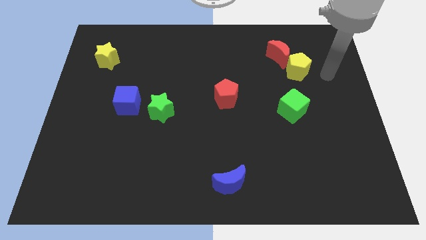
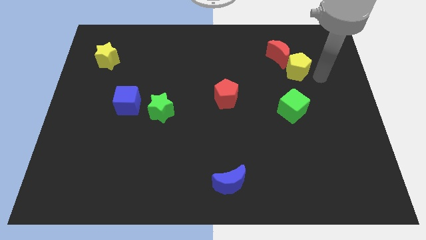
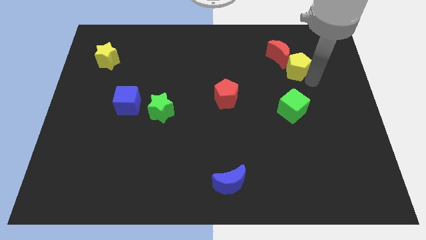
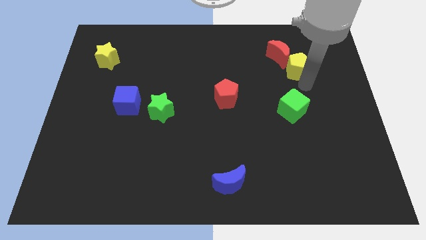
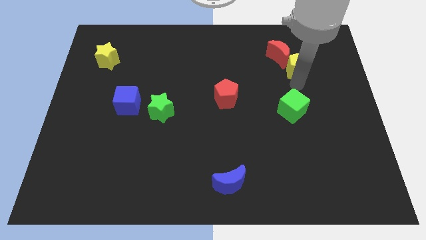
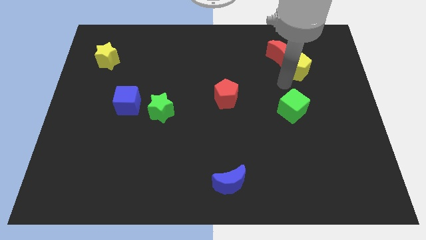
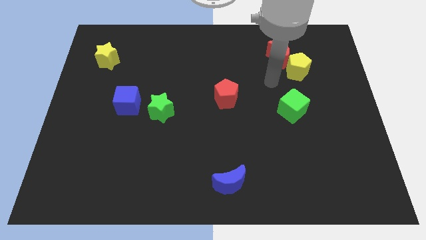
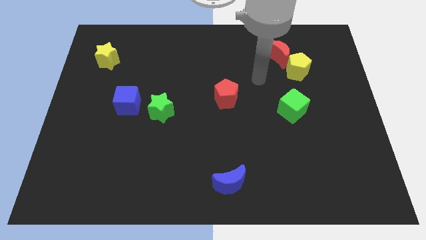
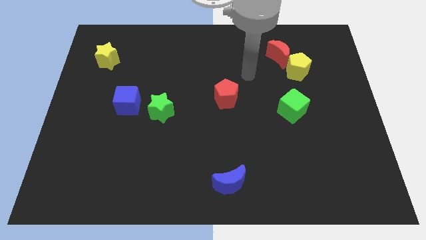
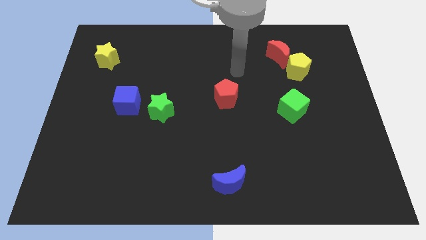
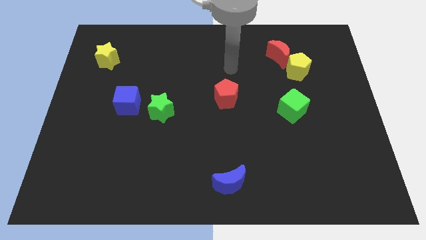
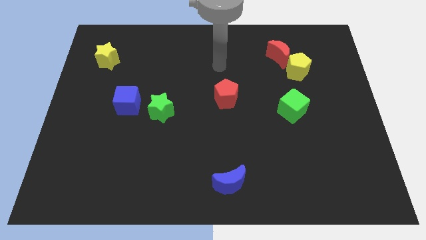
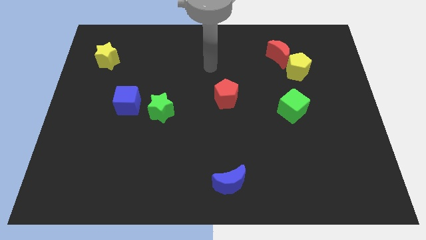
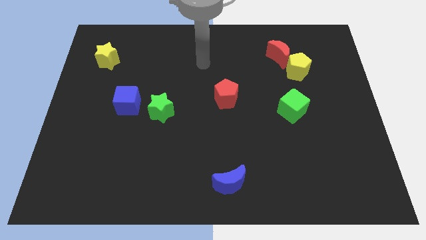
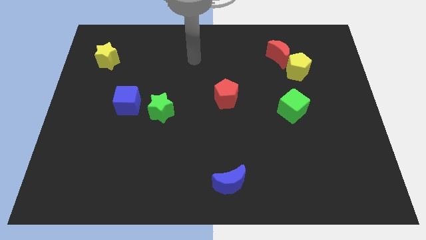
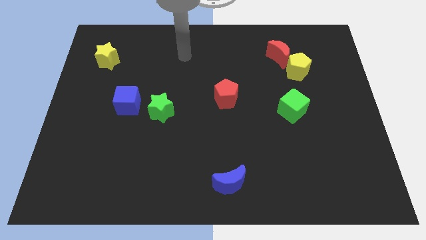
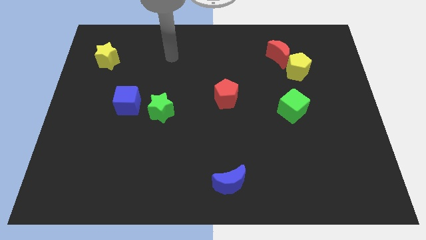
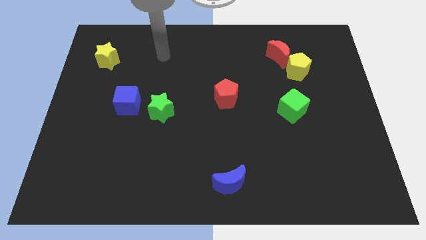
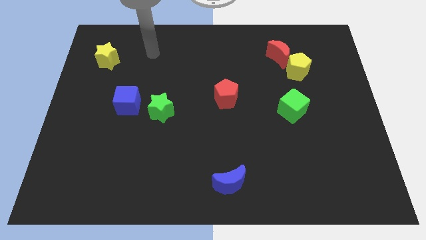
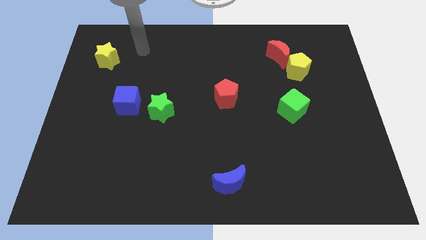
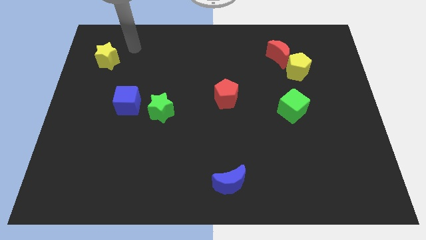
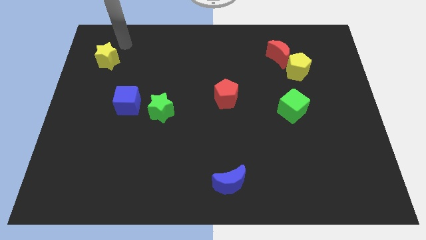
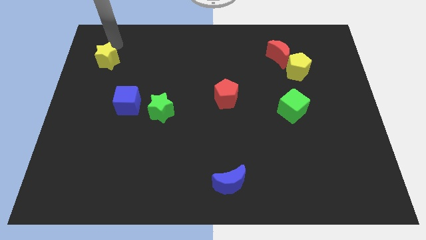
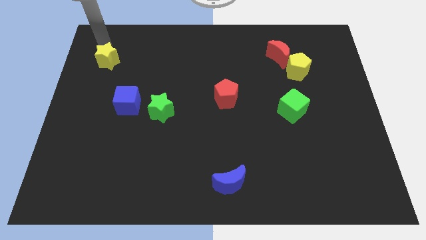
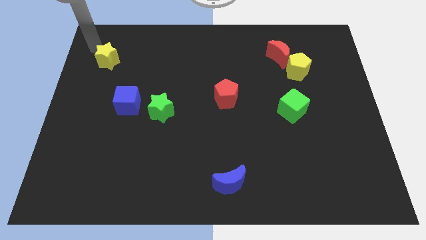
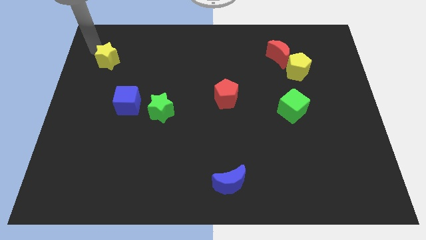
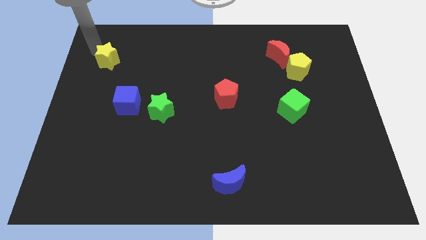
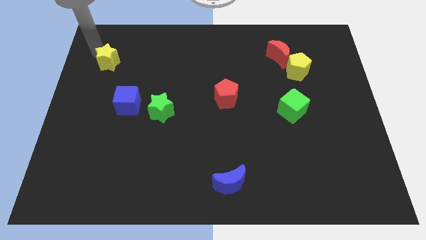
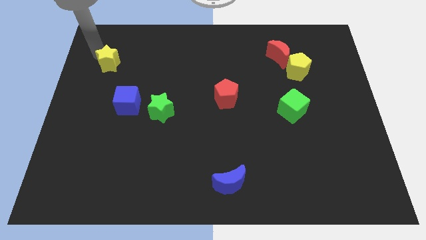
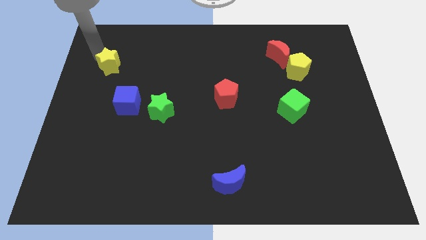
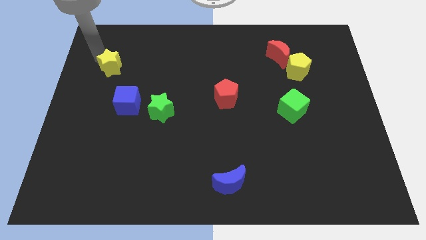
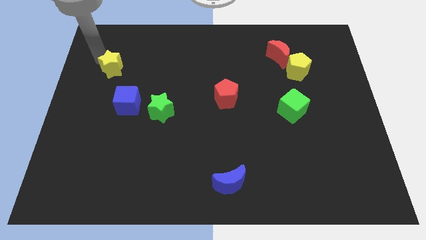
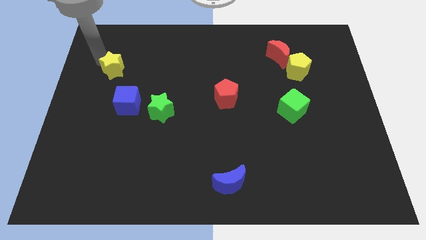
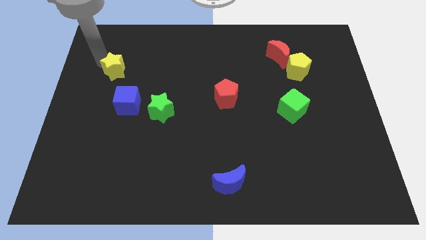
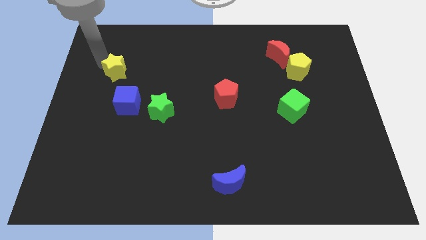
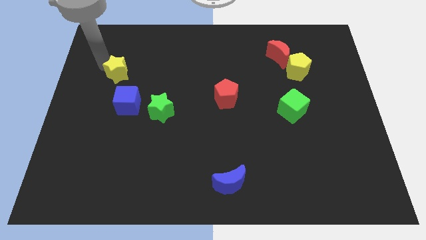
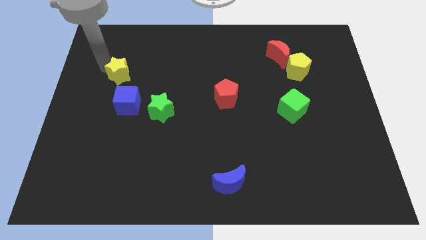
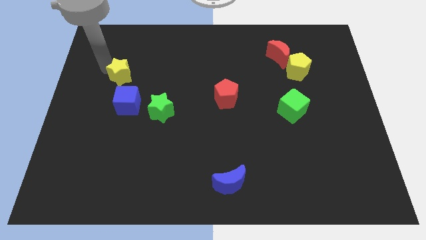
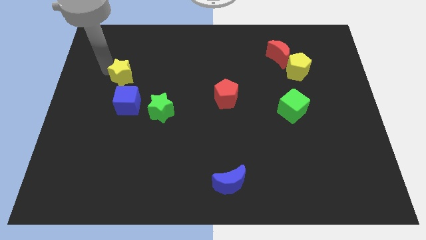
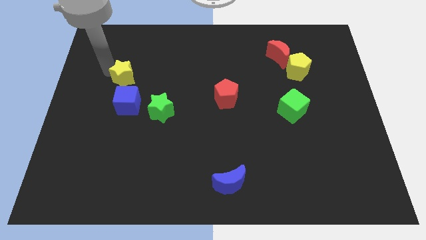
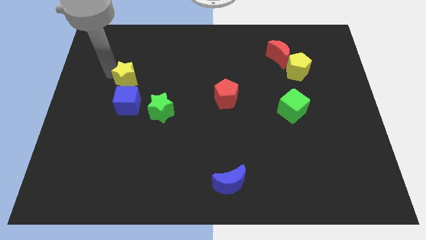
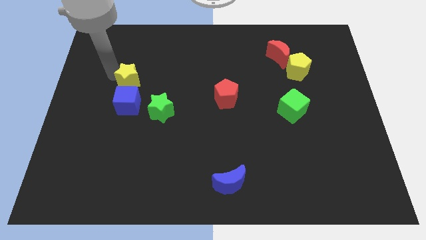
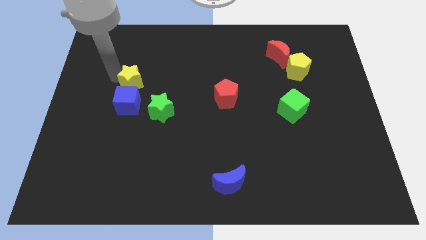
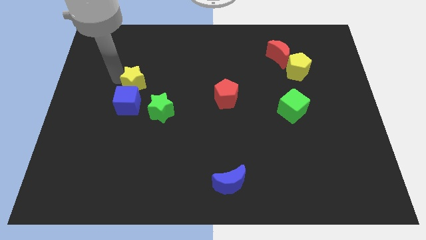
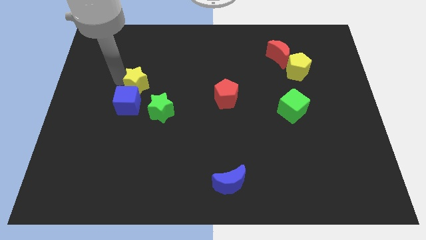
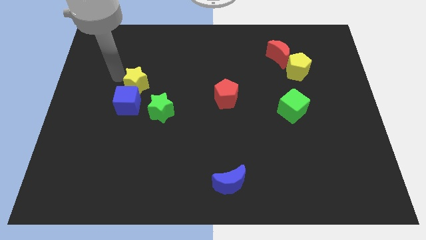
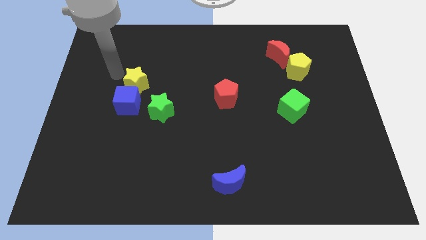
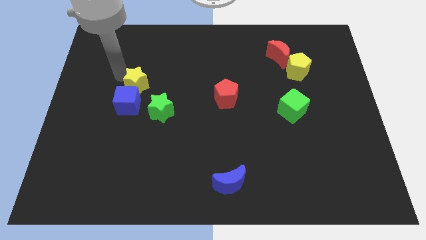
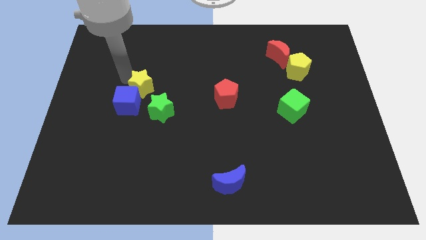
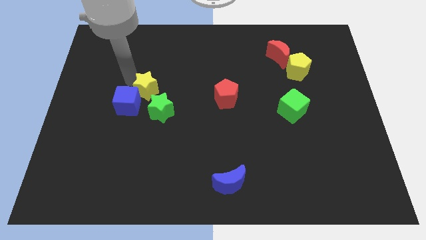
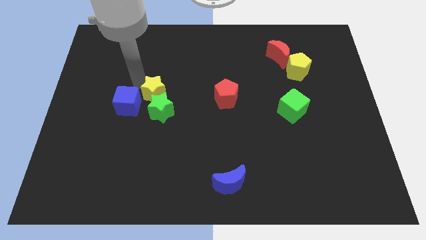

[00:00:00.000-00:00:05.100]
slide the yellow star next to the green star

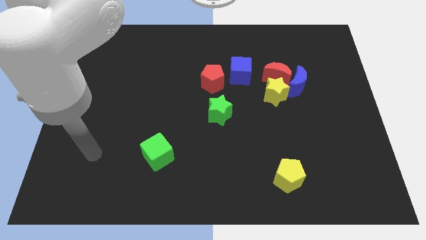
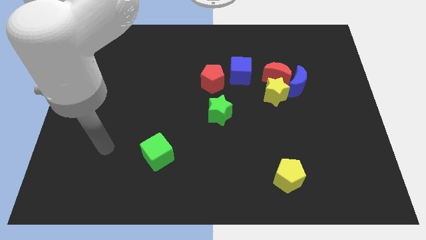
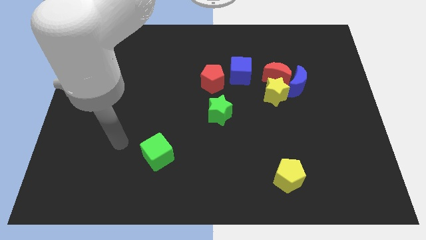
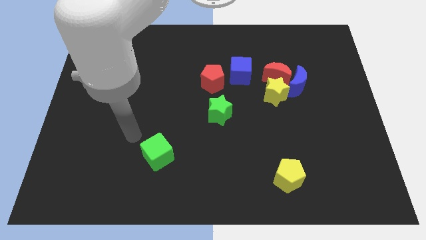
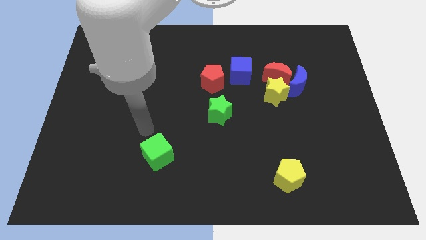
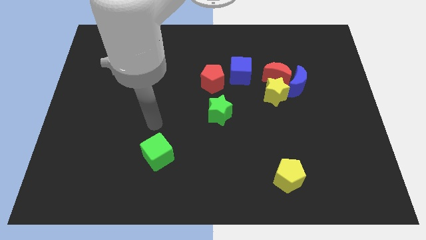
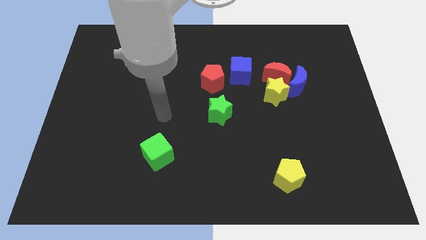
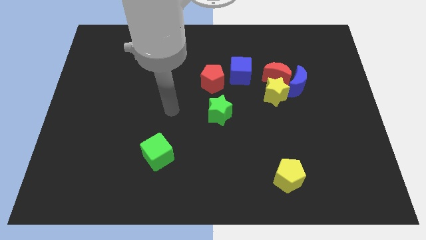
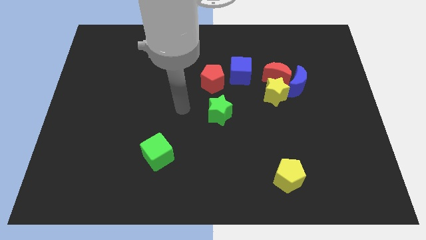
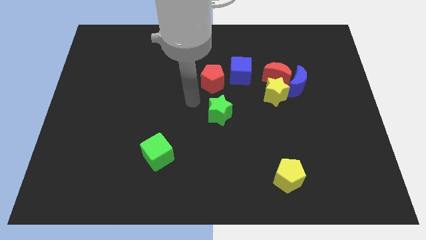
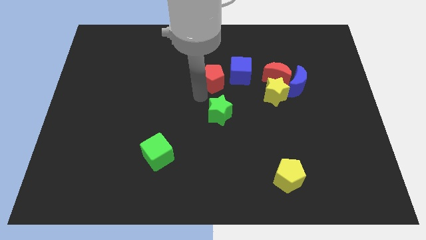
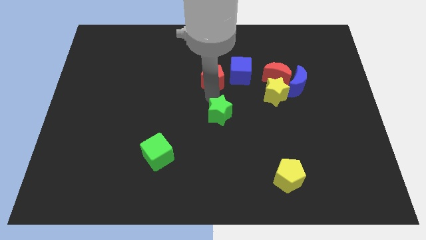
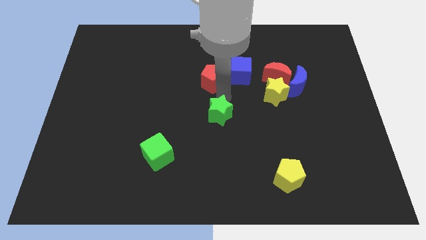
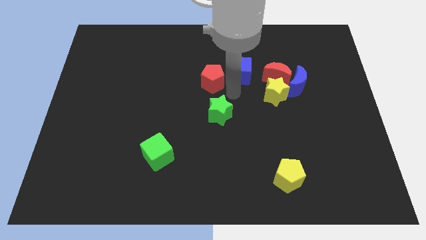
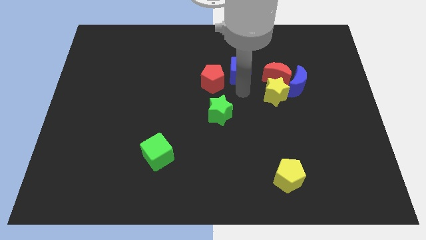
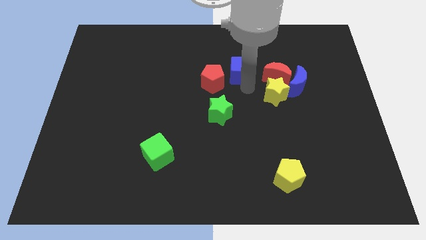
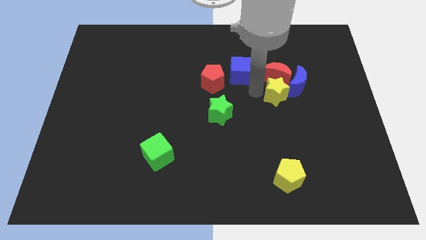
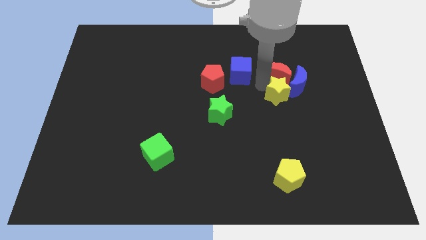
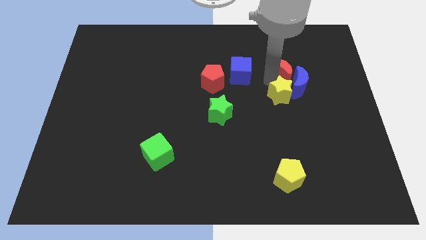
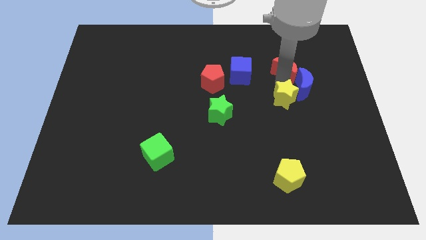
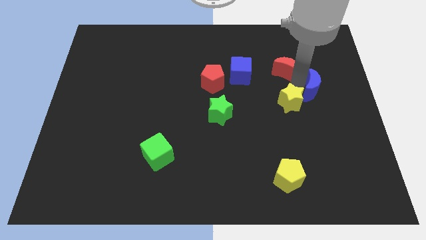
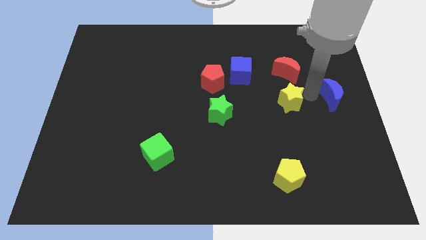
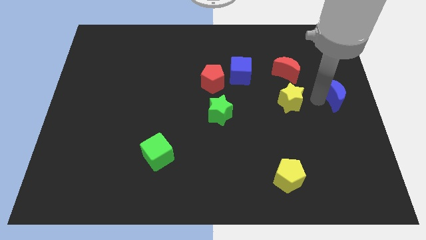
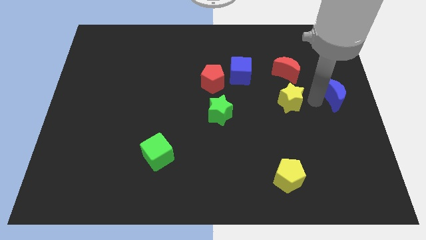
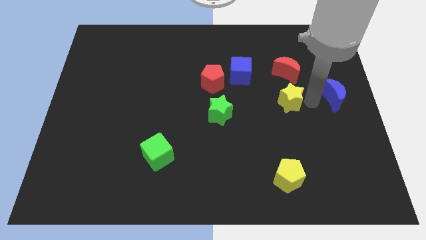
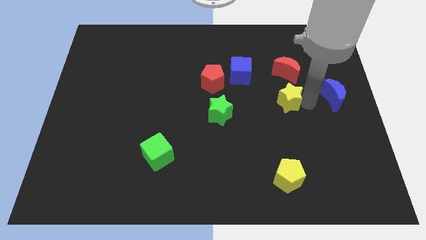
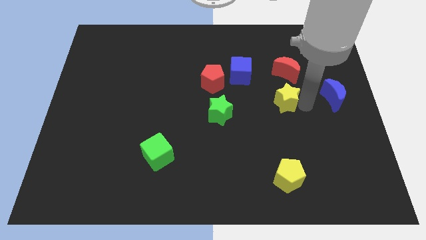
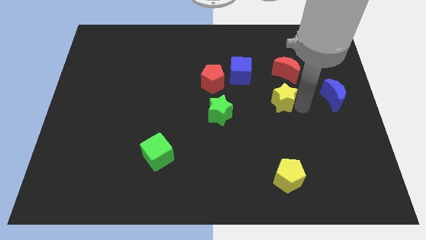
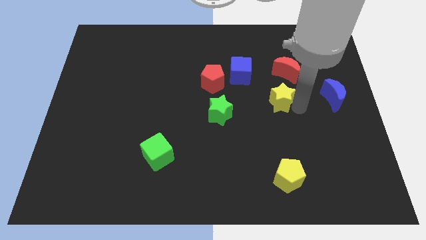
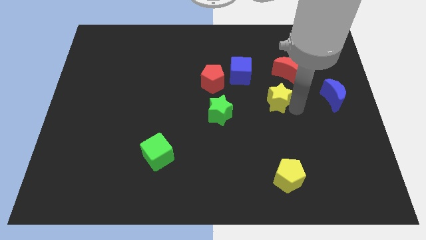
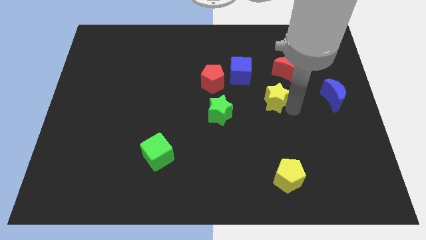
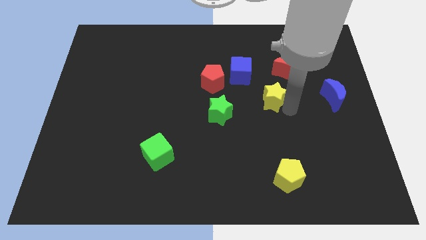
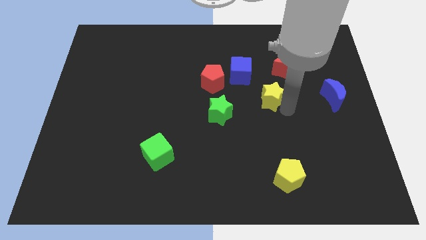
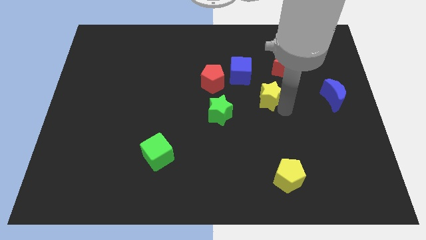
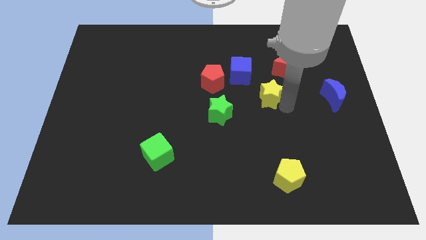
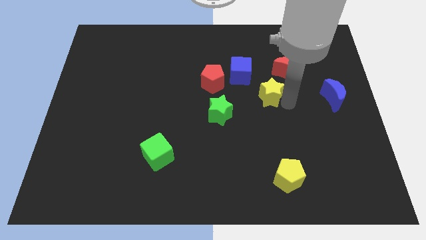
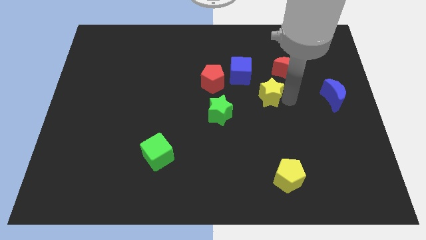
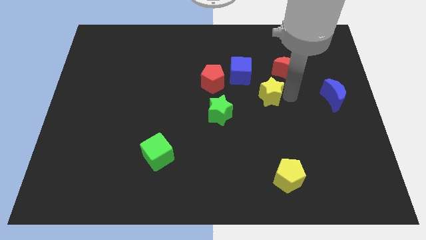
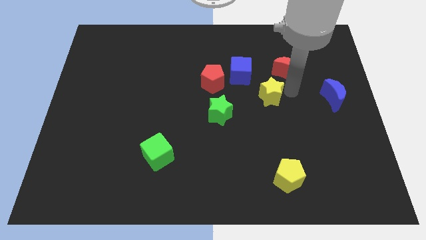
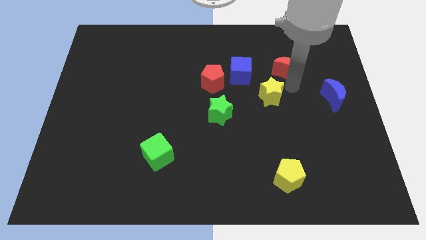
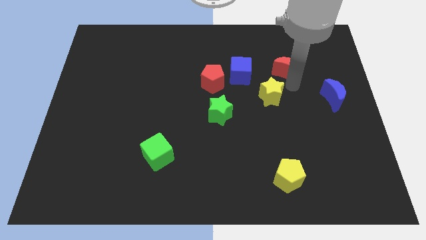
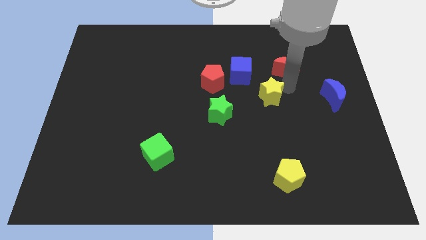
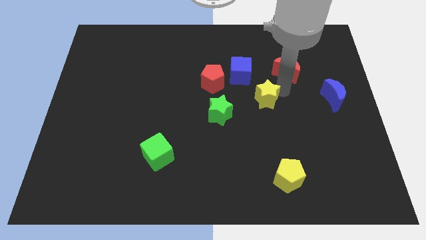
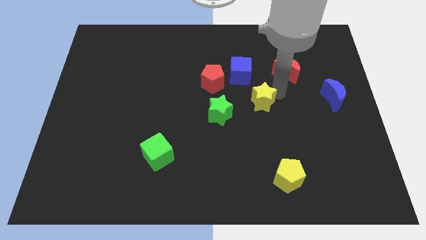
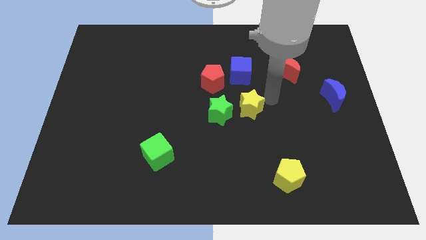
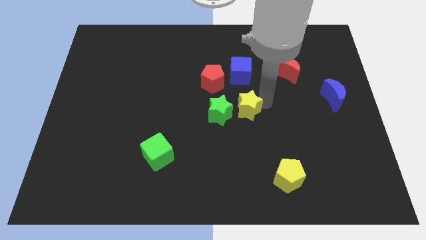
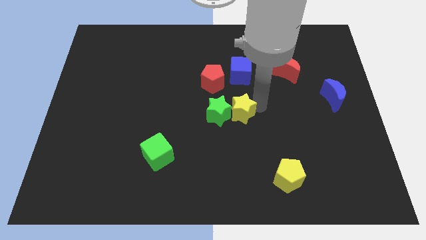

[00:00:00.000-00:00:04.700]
move the yellow star towards the green star
